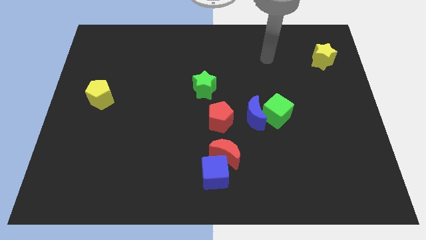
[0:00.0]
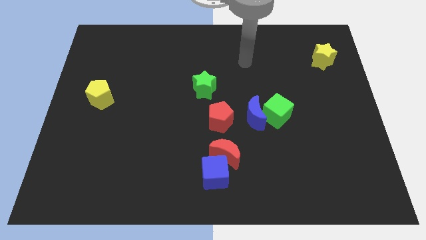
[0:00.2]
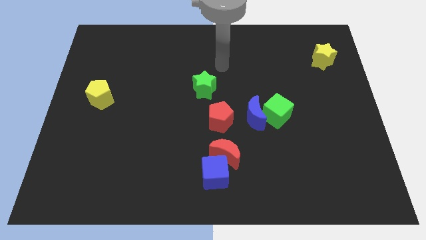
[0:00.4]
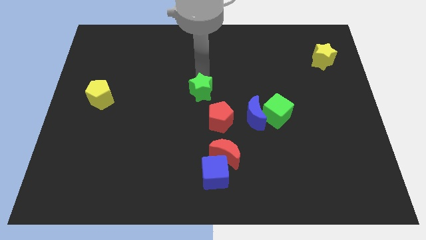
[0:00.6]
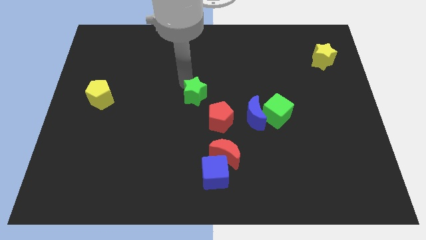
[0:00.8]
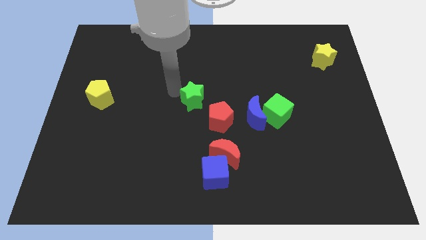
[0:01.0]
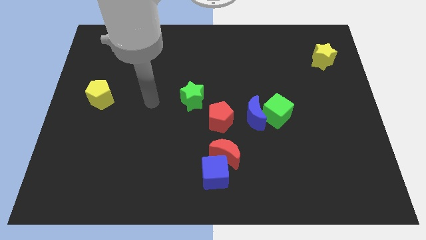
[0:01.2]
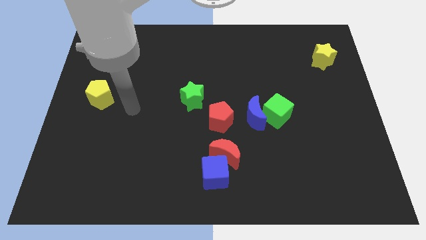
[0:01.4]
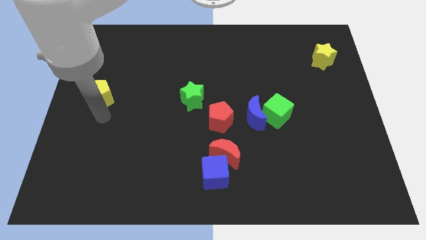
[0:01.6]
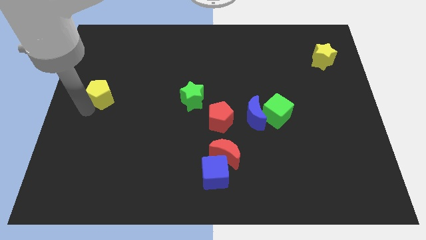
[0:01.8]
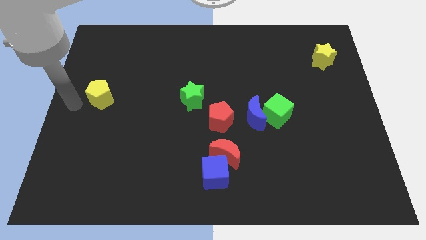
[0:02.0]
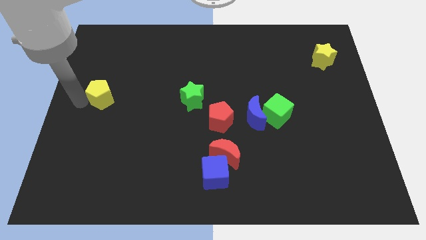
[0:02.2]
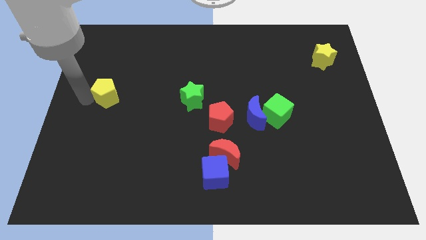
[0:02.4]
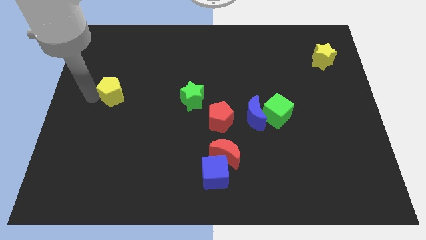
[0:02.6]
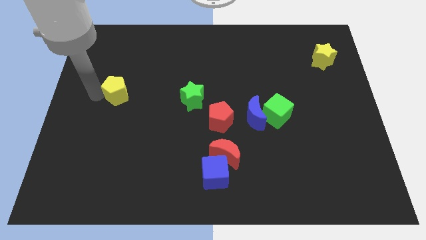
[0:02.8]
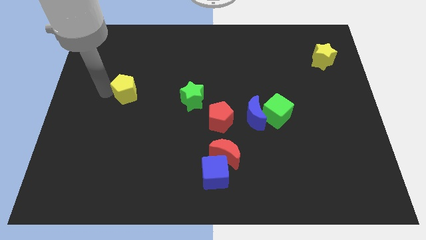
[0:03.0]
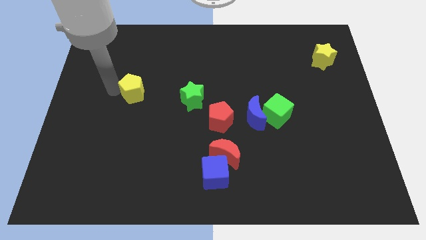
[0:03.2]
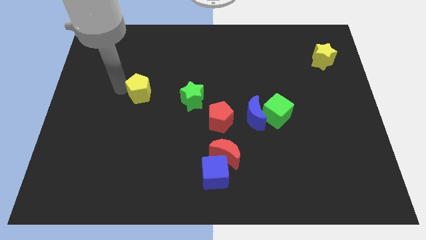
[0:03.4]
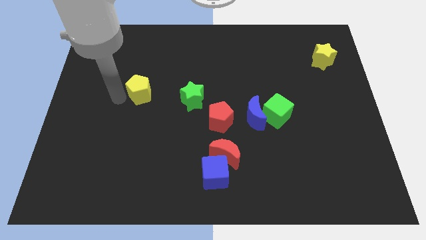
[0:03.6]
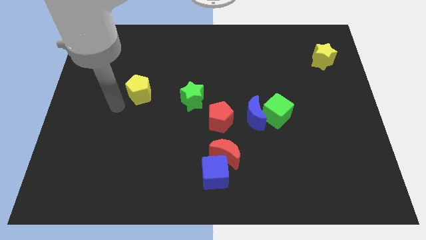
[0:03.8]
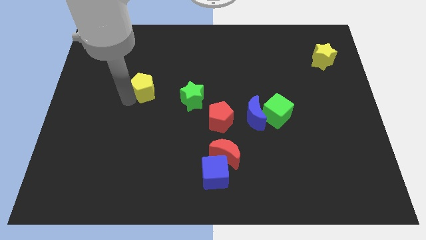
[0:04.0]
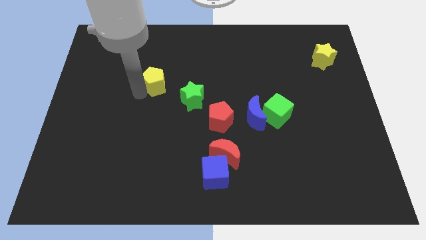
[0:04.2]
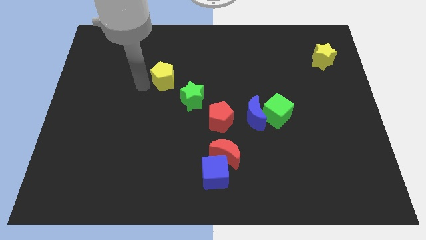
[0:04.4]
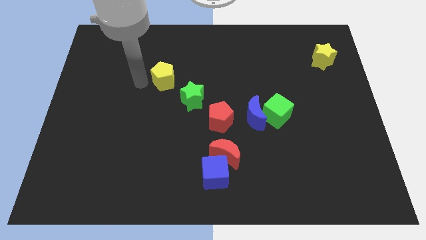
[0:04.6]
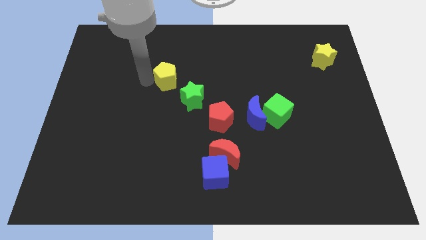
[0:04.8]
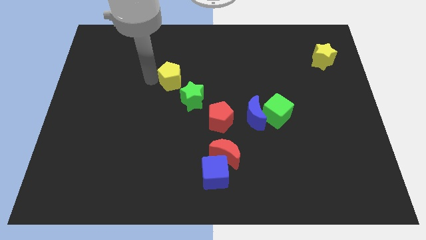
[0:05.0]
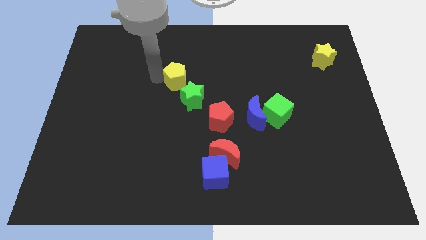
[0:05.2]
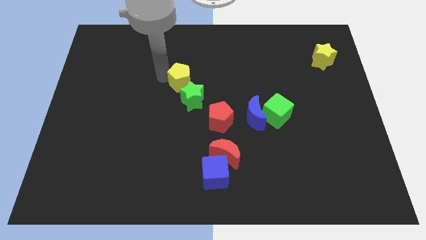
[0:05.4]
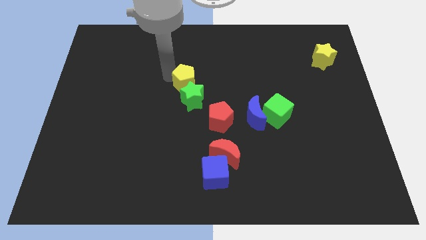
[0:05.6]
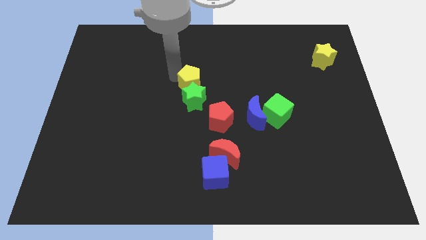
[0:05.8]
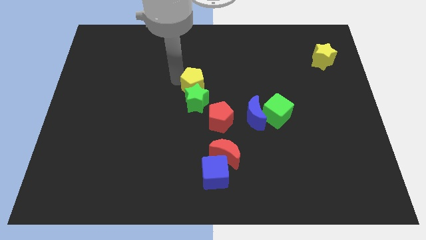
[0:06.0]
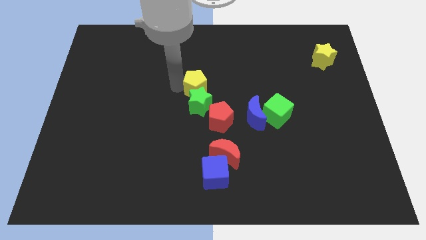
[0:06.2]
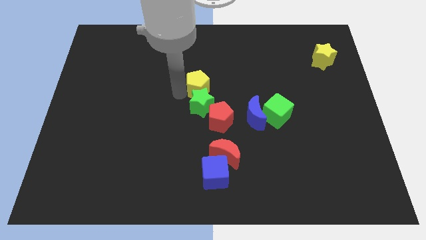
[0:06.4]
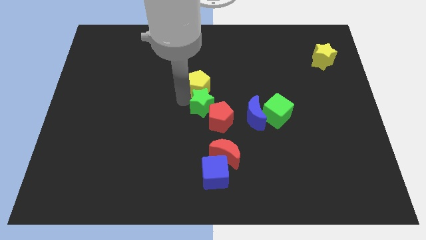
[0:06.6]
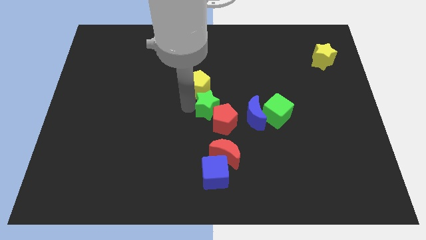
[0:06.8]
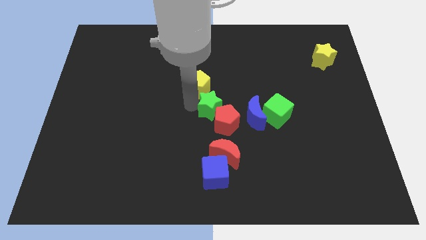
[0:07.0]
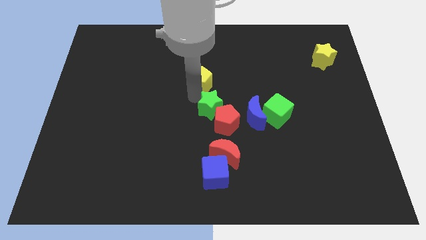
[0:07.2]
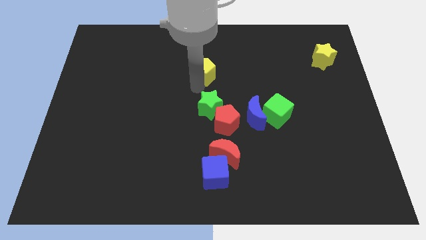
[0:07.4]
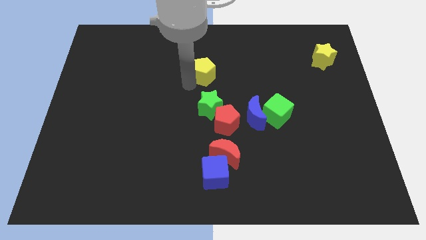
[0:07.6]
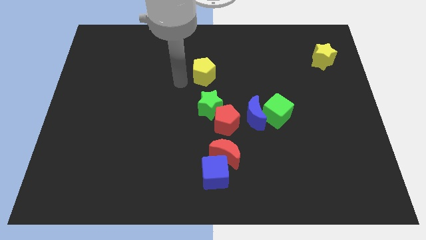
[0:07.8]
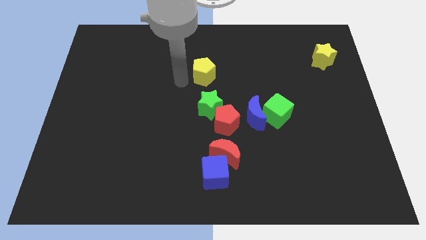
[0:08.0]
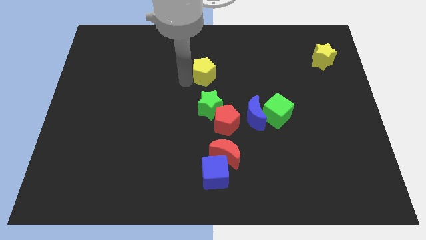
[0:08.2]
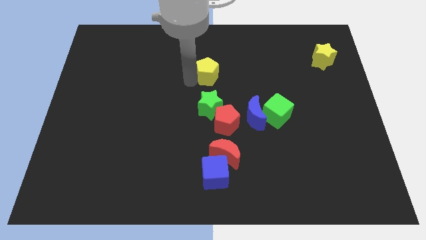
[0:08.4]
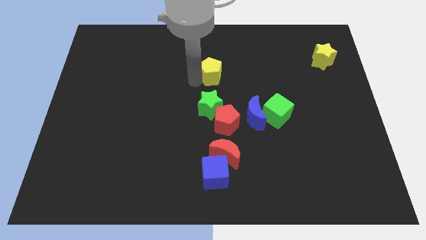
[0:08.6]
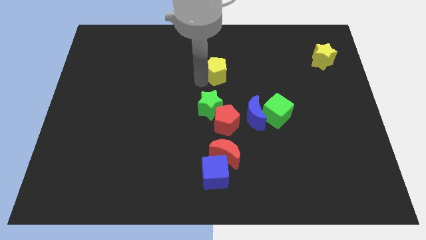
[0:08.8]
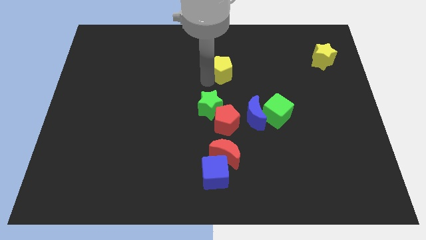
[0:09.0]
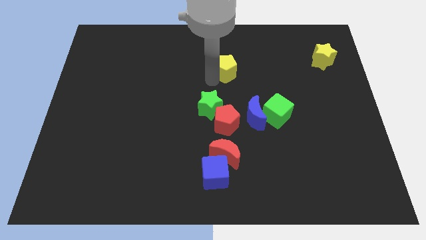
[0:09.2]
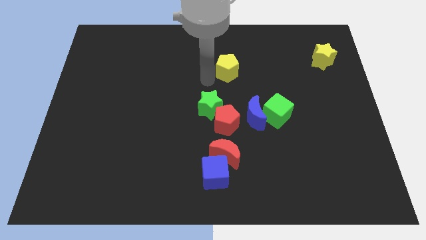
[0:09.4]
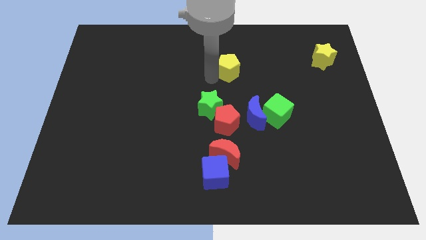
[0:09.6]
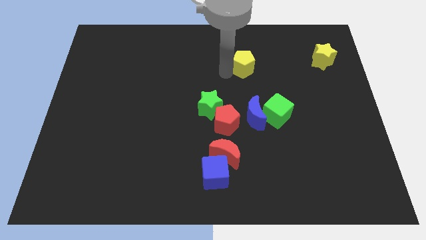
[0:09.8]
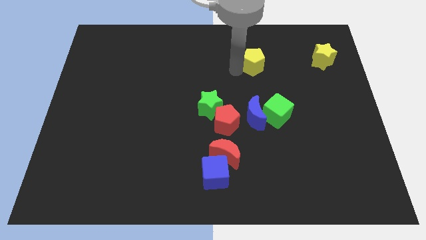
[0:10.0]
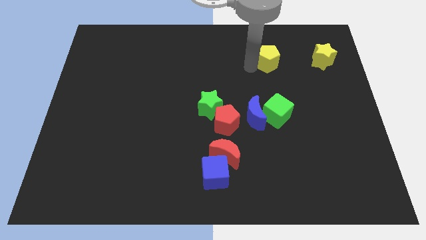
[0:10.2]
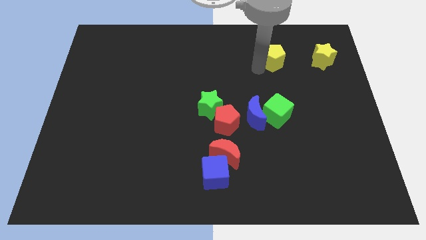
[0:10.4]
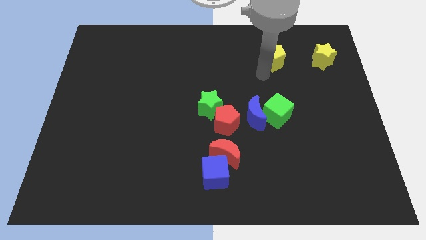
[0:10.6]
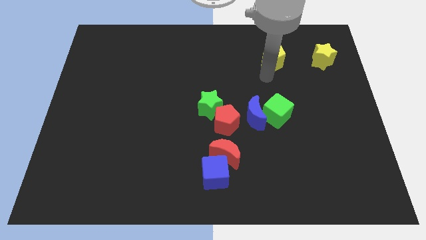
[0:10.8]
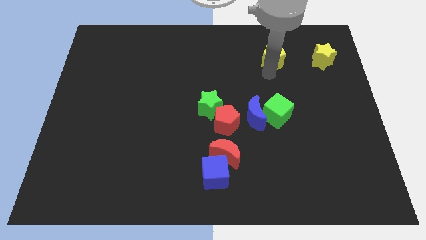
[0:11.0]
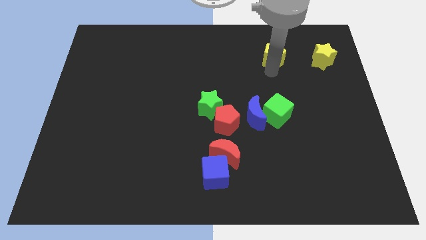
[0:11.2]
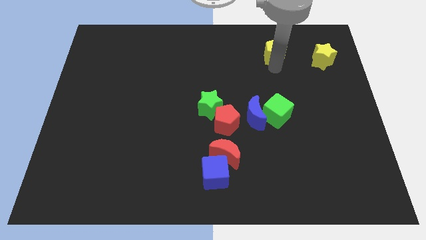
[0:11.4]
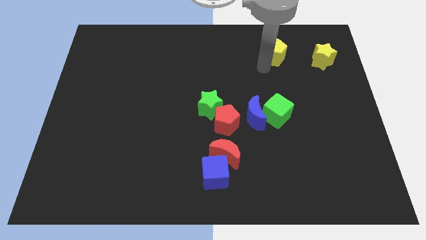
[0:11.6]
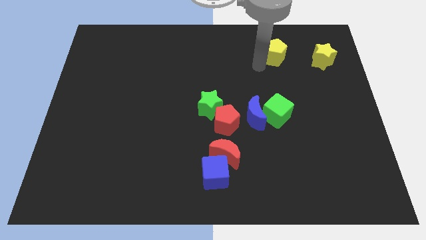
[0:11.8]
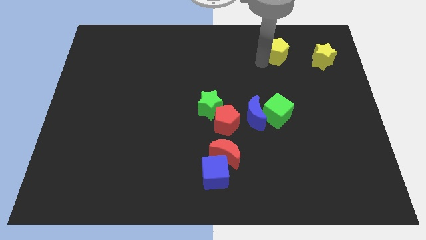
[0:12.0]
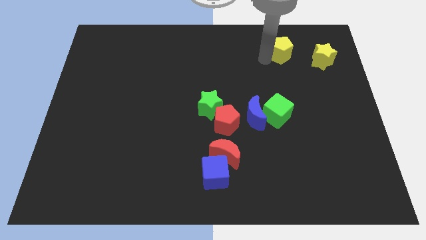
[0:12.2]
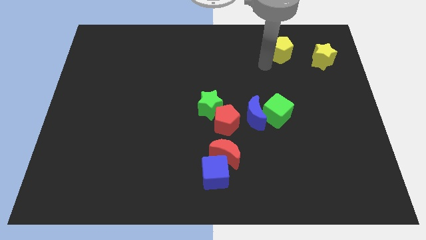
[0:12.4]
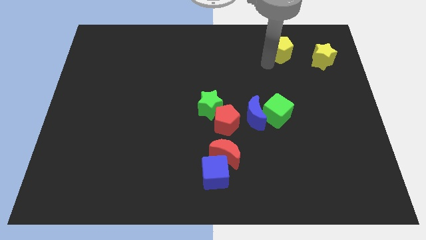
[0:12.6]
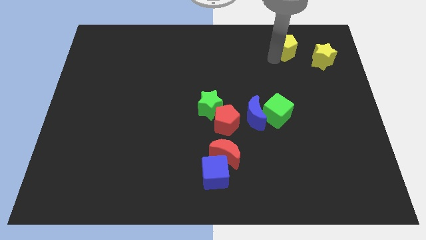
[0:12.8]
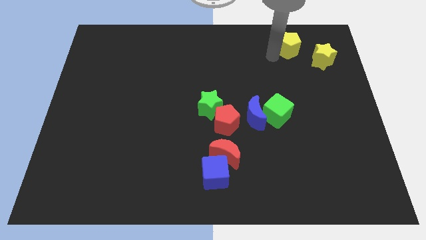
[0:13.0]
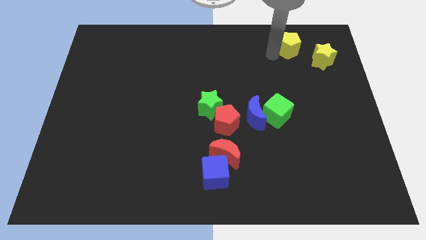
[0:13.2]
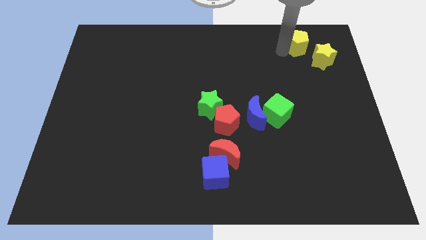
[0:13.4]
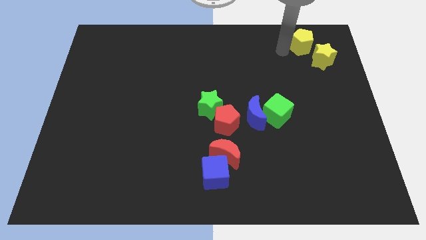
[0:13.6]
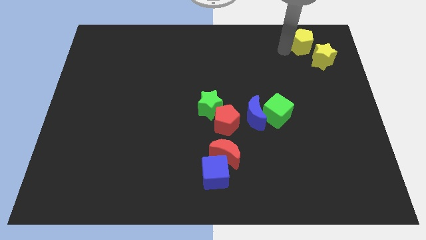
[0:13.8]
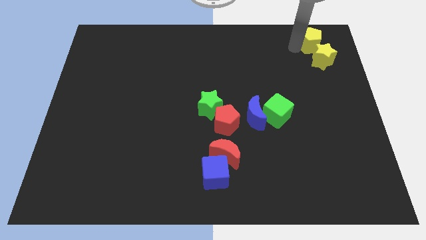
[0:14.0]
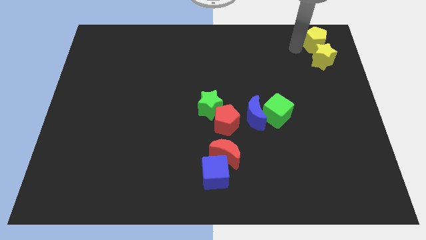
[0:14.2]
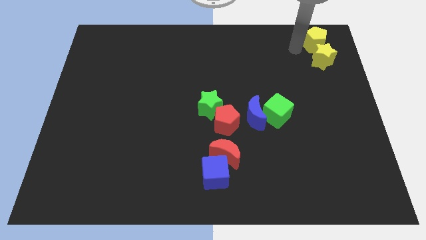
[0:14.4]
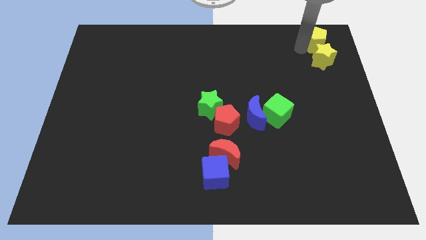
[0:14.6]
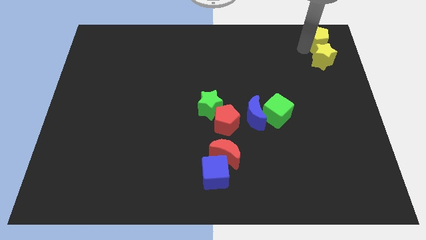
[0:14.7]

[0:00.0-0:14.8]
put the yellow pentagon to the top right corner
